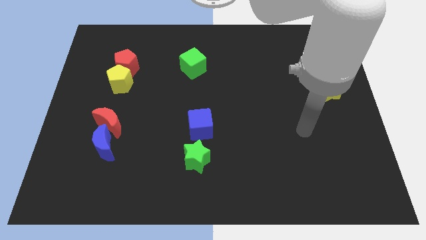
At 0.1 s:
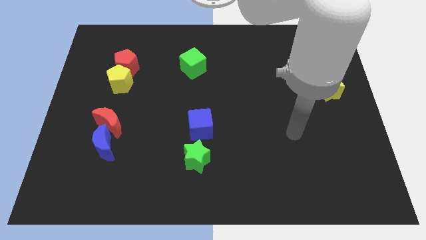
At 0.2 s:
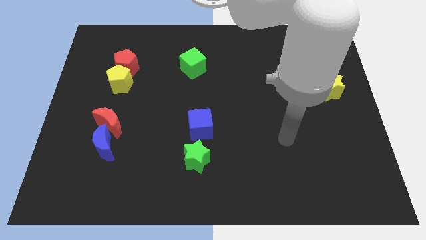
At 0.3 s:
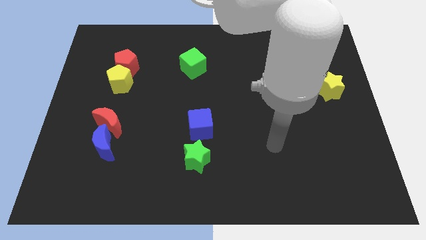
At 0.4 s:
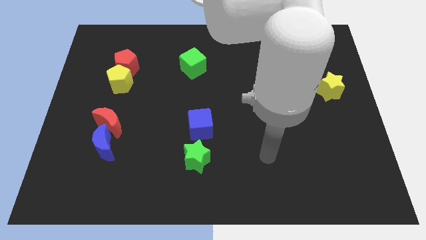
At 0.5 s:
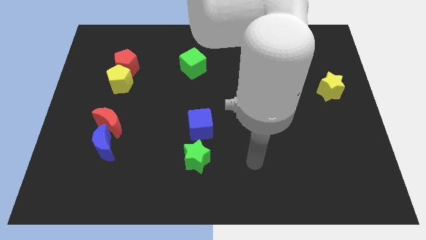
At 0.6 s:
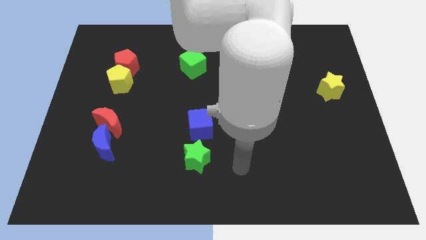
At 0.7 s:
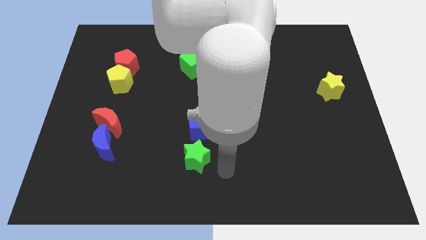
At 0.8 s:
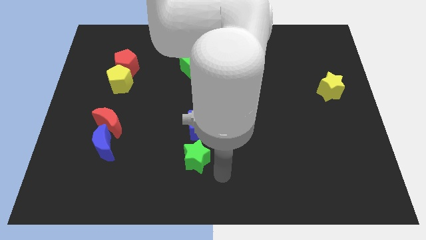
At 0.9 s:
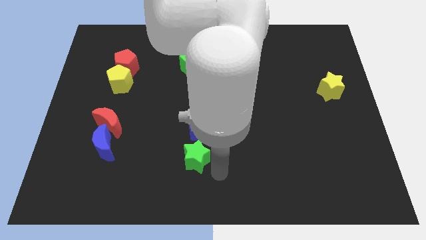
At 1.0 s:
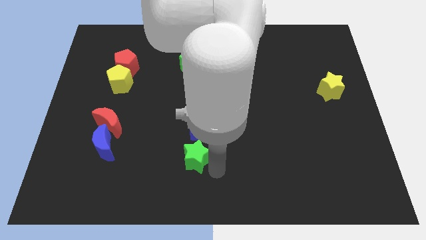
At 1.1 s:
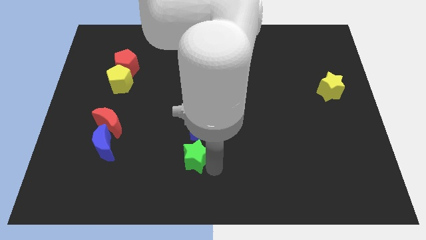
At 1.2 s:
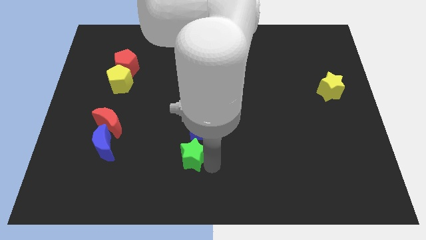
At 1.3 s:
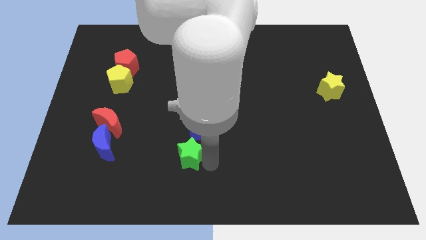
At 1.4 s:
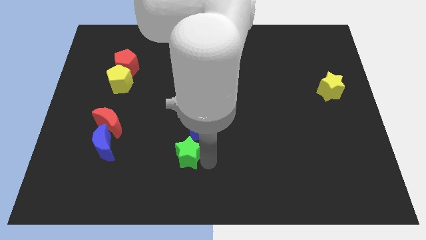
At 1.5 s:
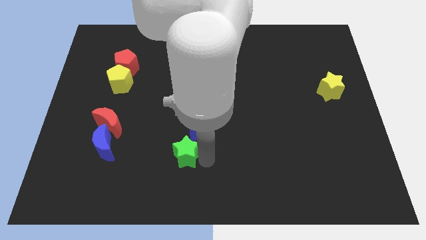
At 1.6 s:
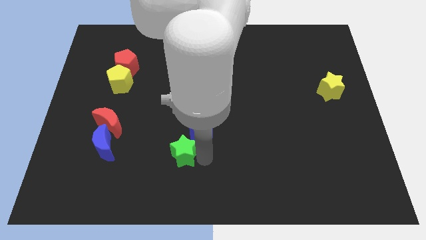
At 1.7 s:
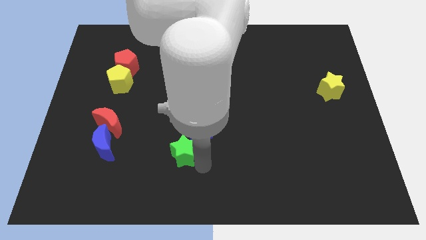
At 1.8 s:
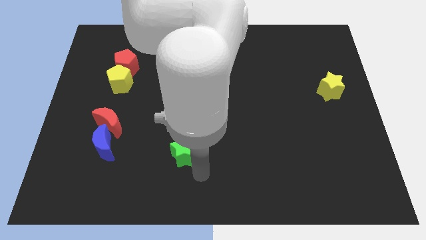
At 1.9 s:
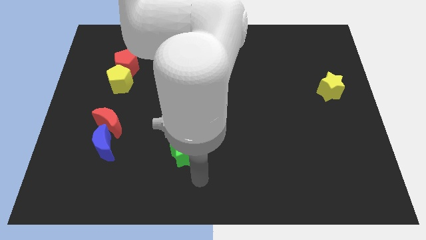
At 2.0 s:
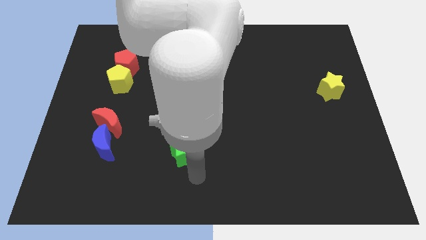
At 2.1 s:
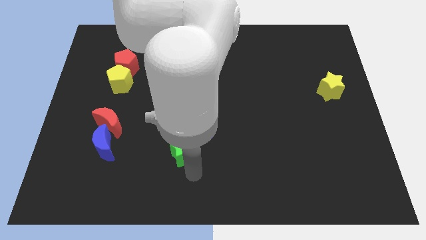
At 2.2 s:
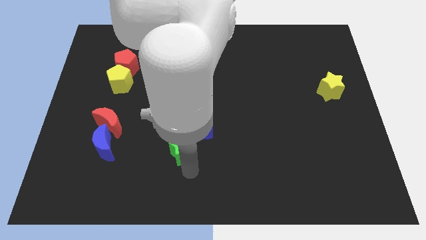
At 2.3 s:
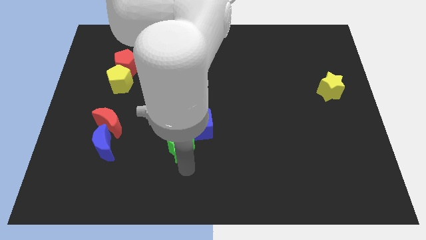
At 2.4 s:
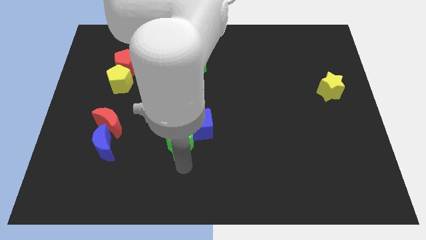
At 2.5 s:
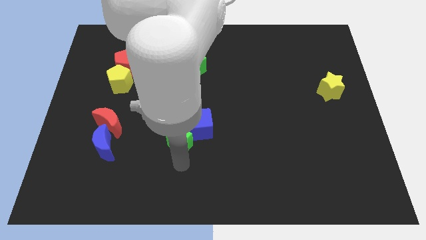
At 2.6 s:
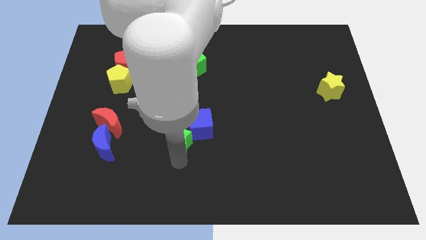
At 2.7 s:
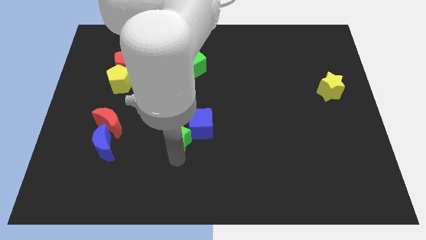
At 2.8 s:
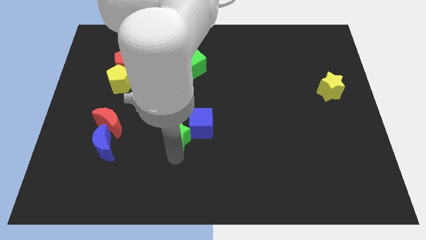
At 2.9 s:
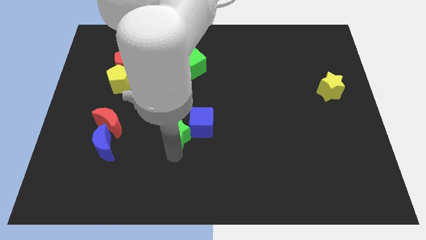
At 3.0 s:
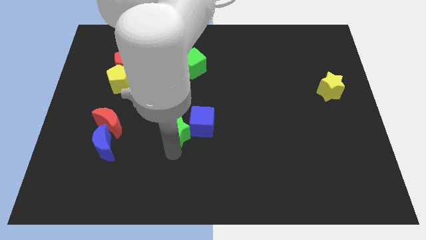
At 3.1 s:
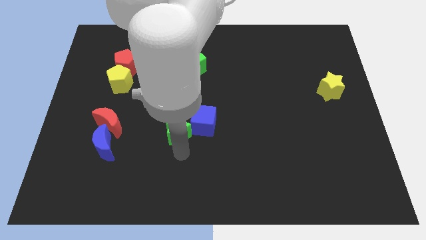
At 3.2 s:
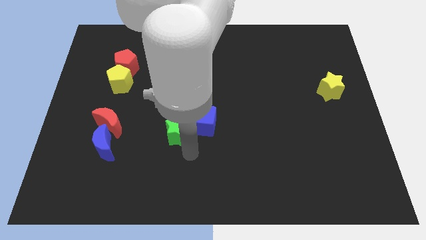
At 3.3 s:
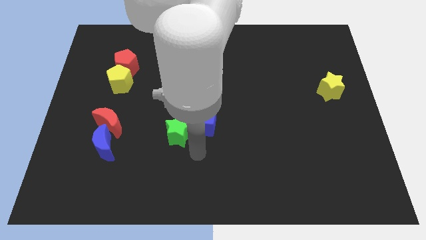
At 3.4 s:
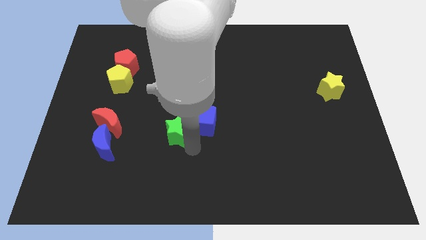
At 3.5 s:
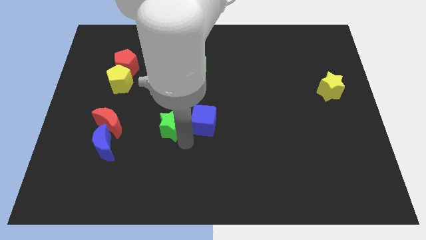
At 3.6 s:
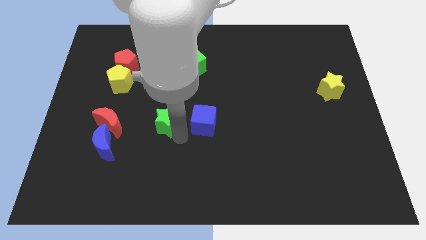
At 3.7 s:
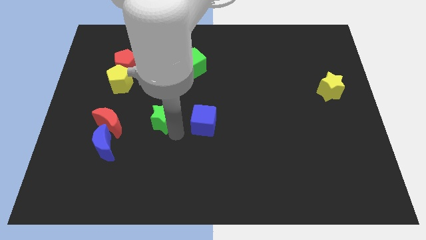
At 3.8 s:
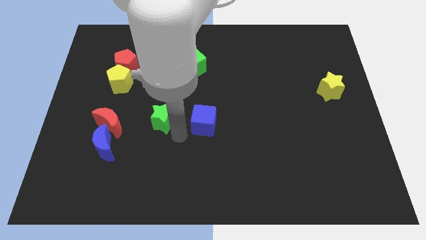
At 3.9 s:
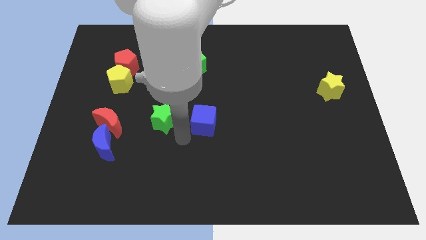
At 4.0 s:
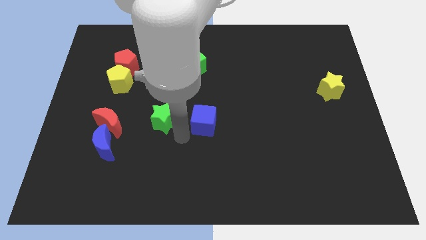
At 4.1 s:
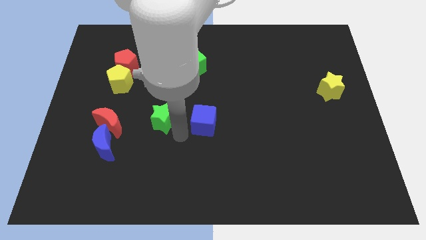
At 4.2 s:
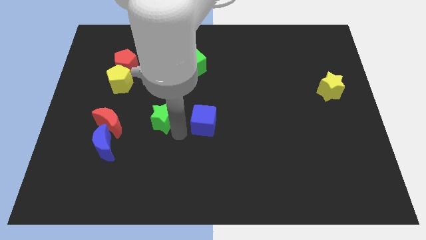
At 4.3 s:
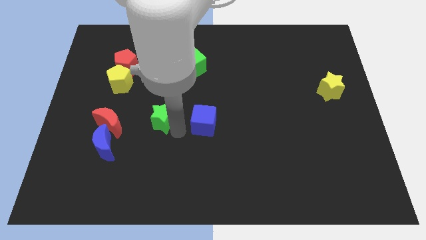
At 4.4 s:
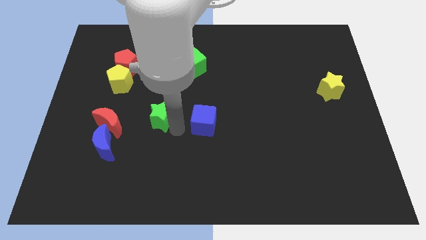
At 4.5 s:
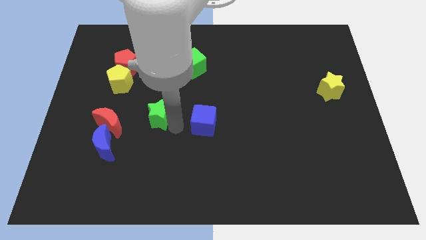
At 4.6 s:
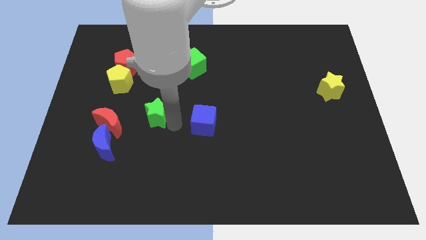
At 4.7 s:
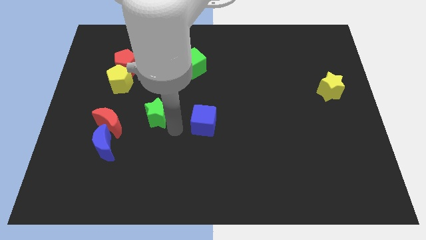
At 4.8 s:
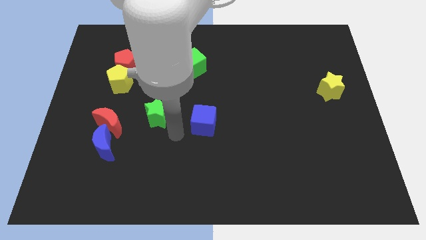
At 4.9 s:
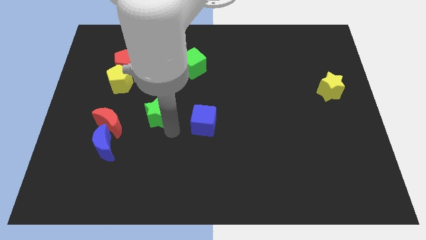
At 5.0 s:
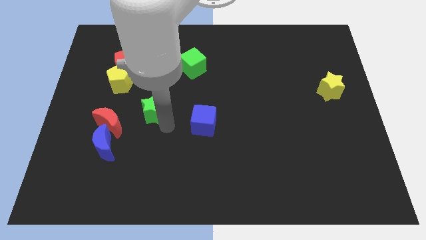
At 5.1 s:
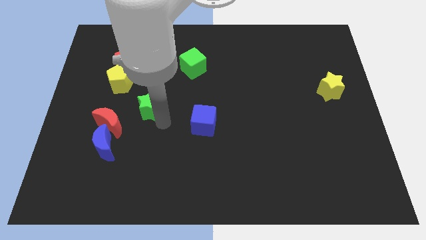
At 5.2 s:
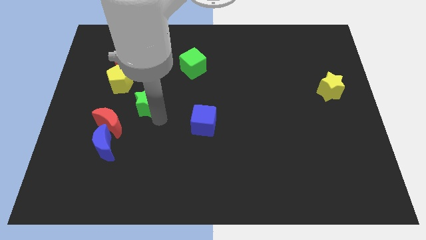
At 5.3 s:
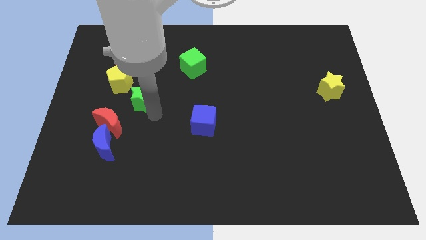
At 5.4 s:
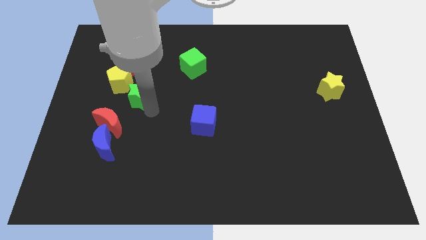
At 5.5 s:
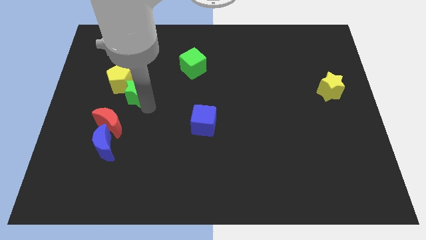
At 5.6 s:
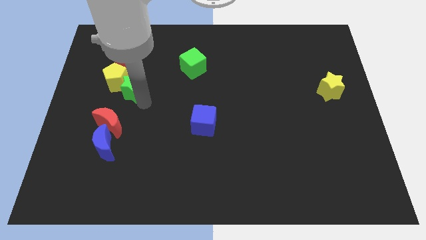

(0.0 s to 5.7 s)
move the green star close to the yellow pentagon

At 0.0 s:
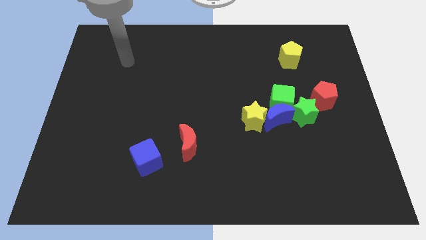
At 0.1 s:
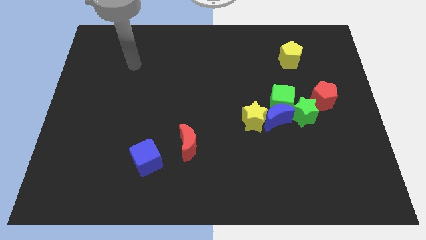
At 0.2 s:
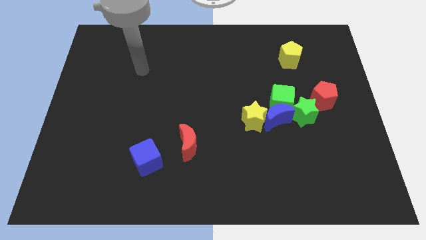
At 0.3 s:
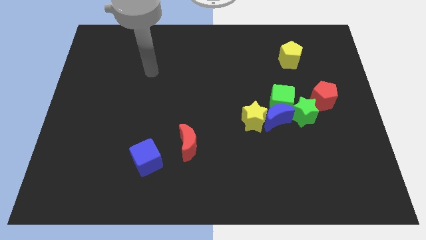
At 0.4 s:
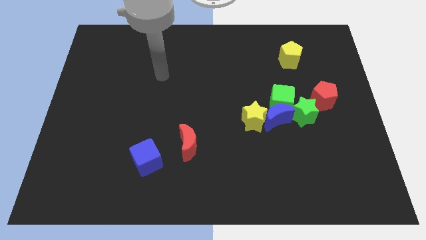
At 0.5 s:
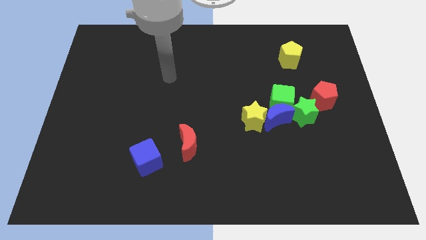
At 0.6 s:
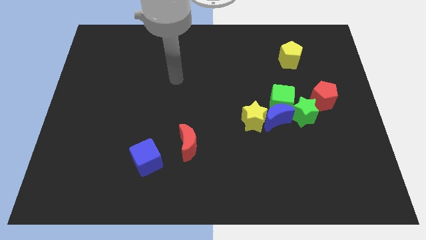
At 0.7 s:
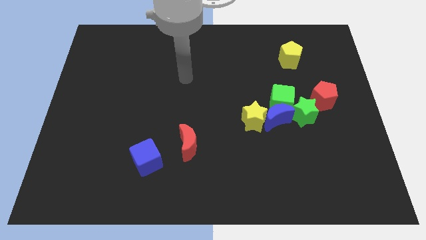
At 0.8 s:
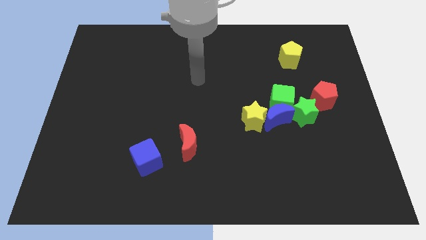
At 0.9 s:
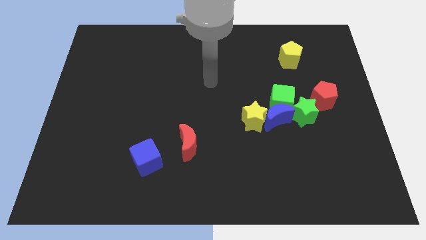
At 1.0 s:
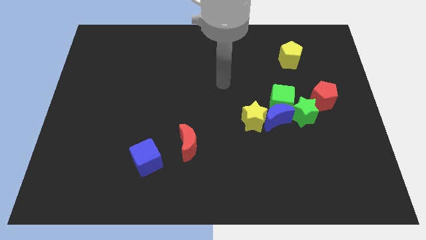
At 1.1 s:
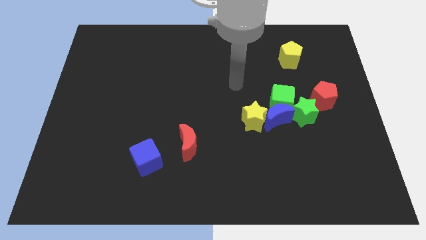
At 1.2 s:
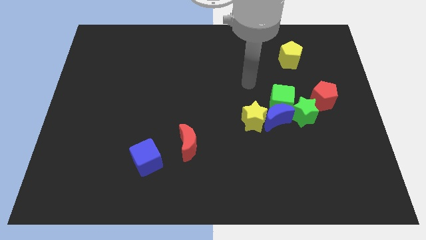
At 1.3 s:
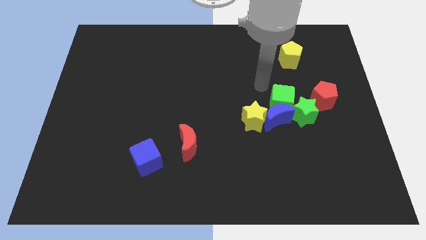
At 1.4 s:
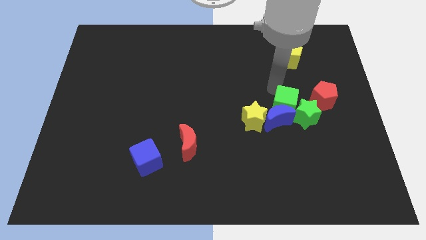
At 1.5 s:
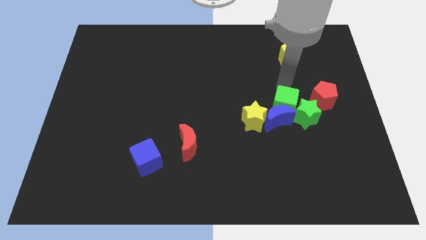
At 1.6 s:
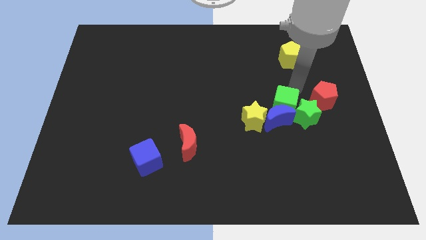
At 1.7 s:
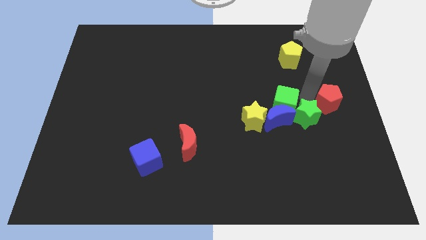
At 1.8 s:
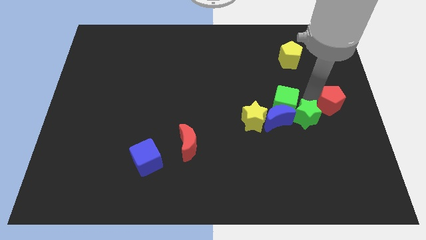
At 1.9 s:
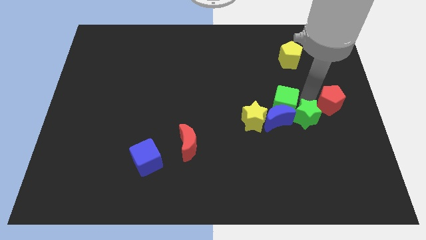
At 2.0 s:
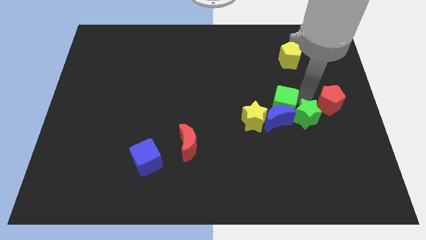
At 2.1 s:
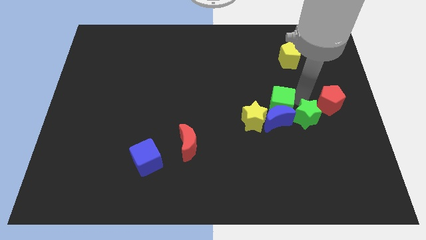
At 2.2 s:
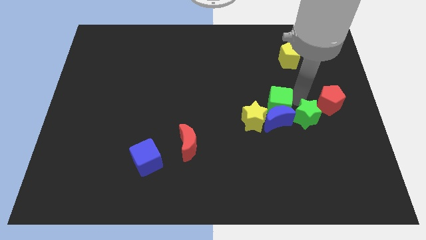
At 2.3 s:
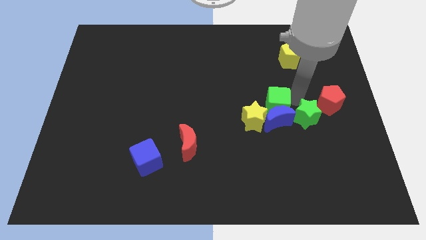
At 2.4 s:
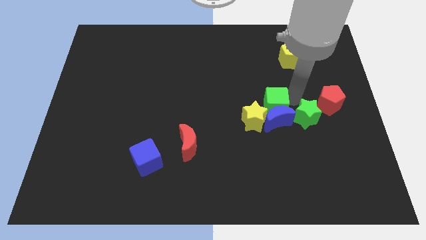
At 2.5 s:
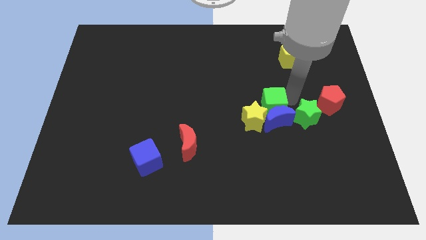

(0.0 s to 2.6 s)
put the green cube to the yellow star
